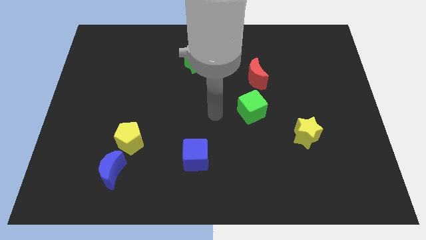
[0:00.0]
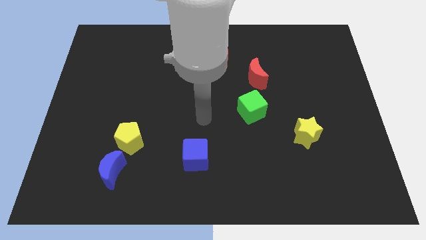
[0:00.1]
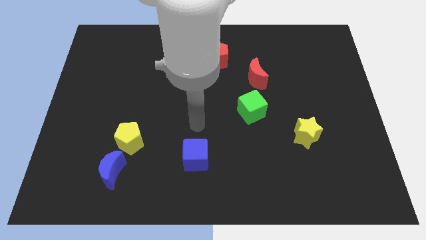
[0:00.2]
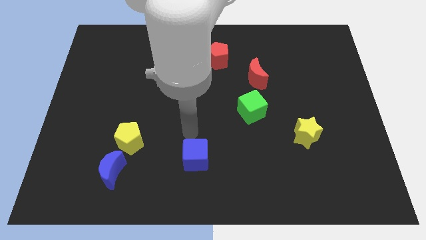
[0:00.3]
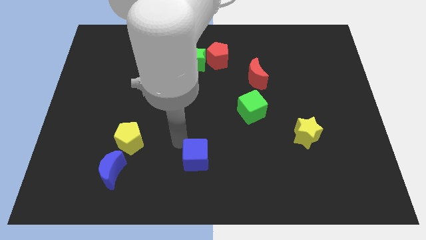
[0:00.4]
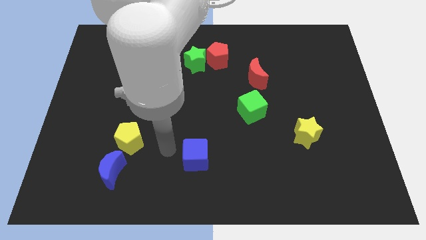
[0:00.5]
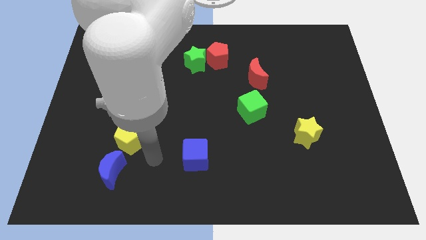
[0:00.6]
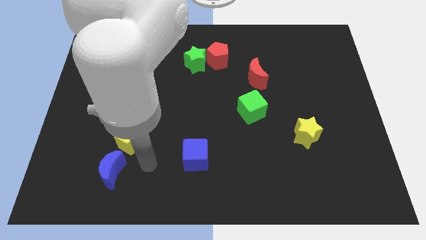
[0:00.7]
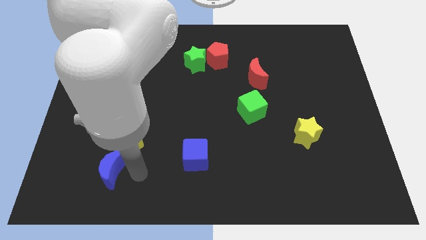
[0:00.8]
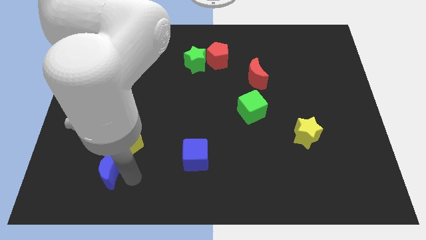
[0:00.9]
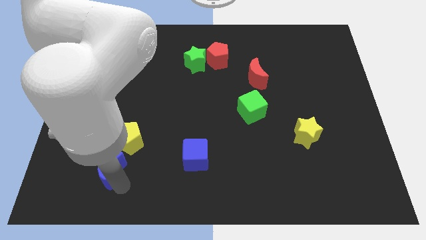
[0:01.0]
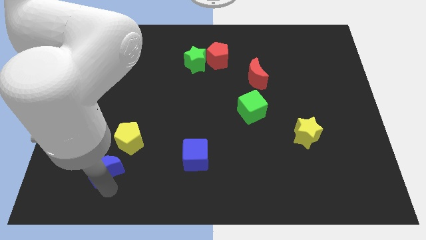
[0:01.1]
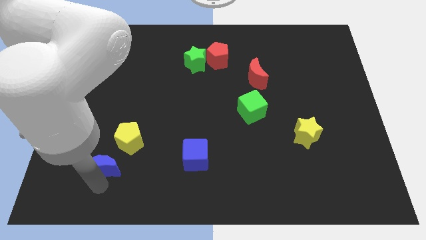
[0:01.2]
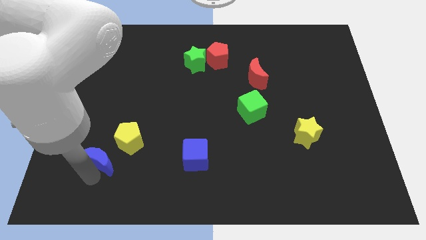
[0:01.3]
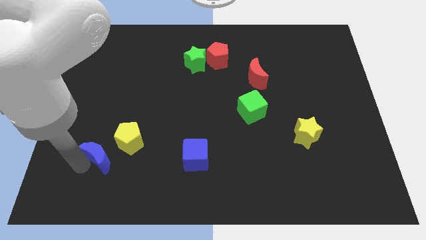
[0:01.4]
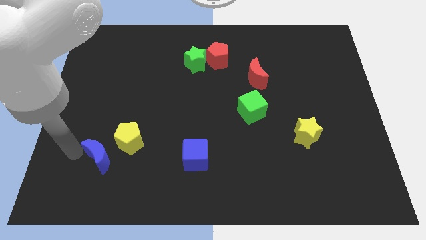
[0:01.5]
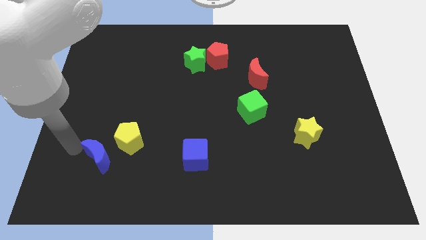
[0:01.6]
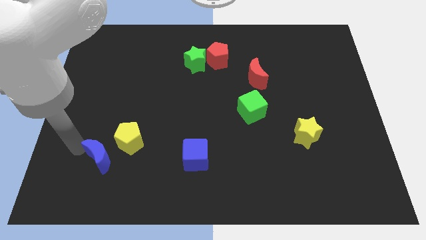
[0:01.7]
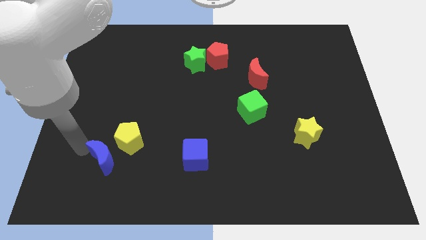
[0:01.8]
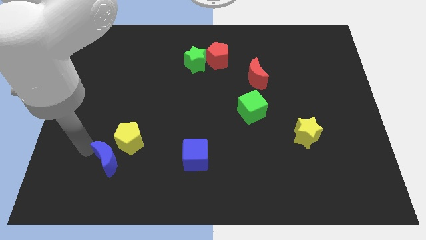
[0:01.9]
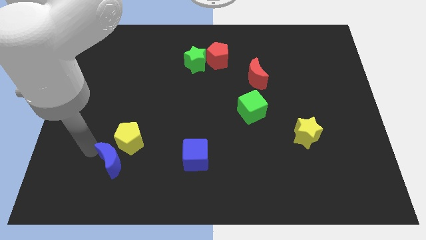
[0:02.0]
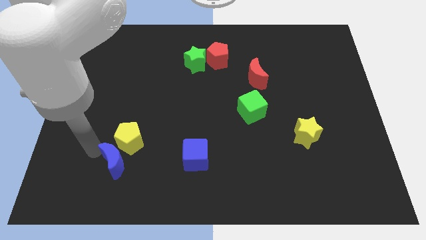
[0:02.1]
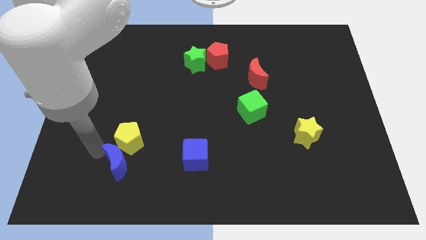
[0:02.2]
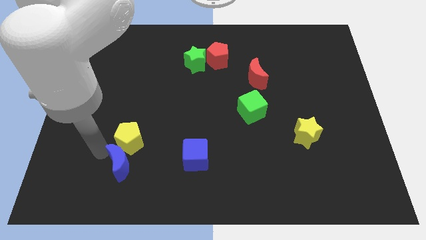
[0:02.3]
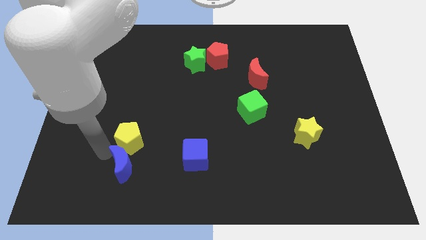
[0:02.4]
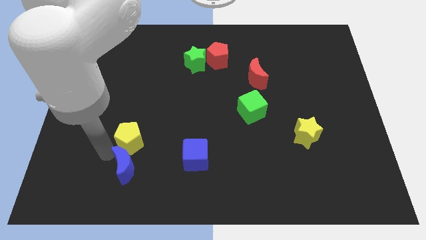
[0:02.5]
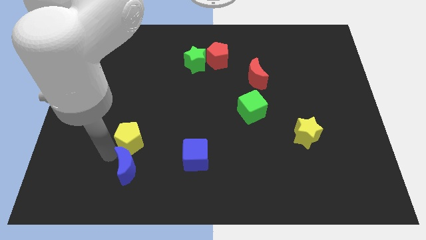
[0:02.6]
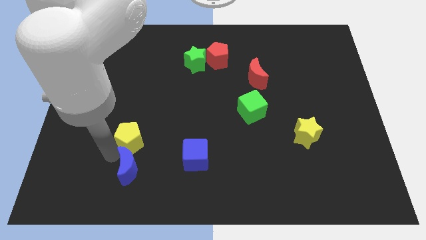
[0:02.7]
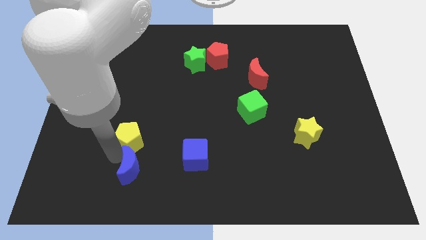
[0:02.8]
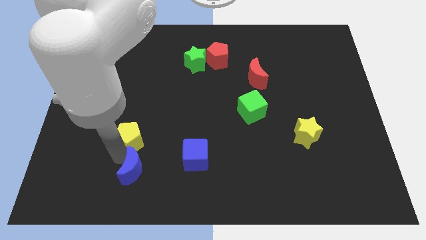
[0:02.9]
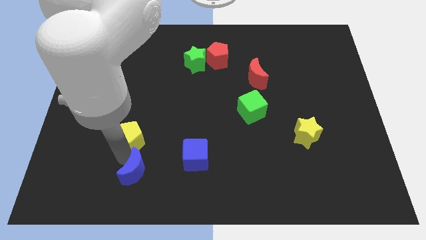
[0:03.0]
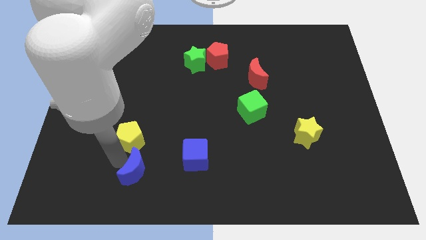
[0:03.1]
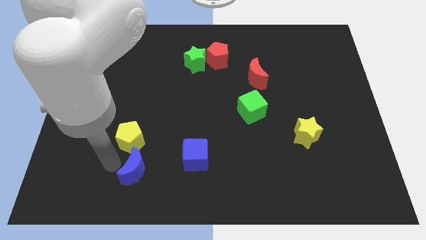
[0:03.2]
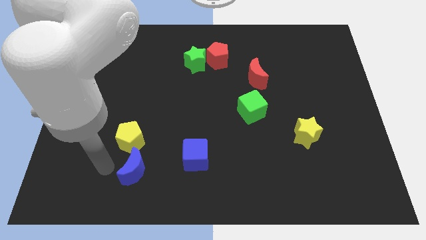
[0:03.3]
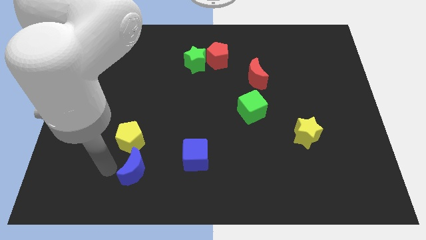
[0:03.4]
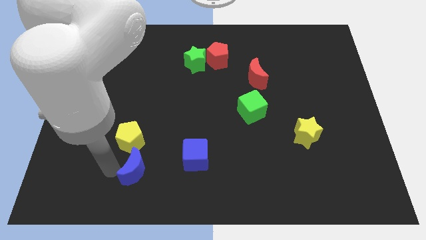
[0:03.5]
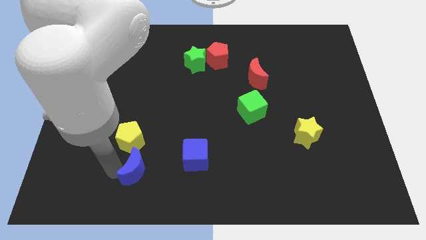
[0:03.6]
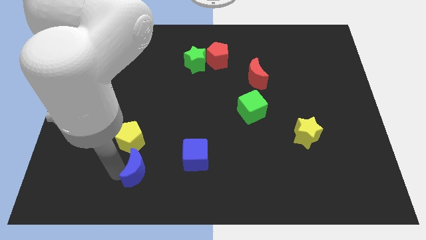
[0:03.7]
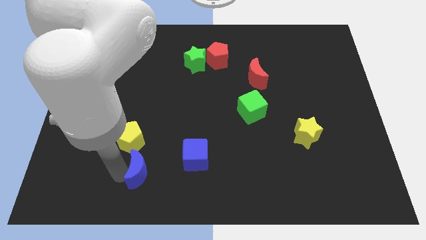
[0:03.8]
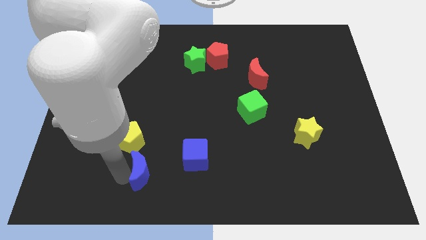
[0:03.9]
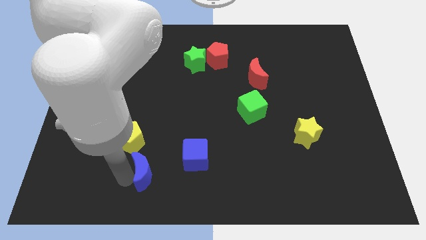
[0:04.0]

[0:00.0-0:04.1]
move the blue moon somewhat right

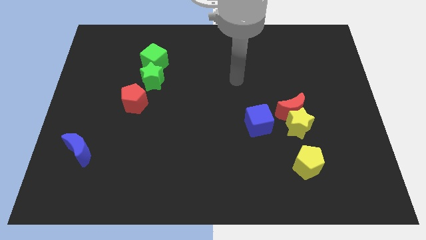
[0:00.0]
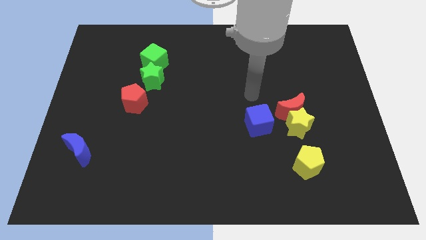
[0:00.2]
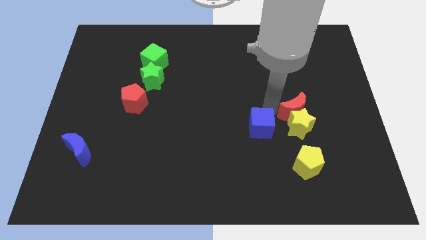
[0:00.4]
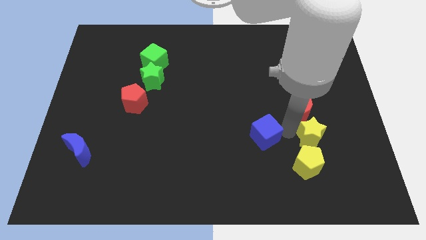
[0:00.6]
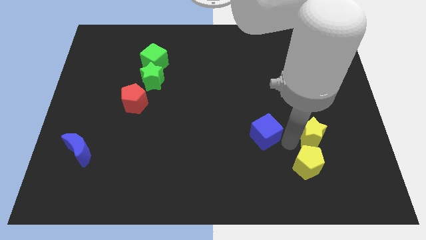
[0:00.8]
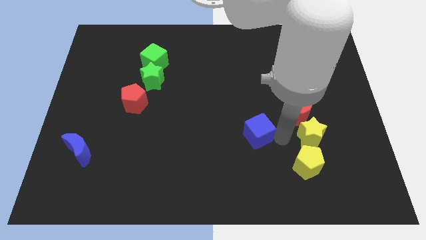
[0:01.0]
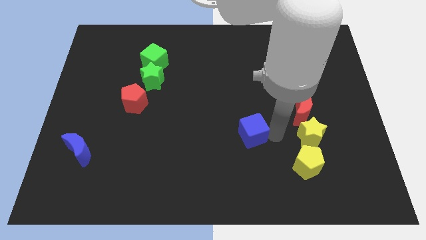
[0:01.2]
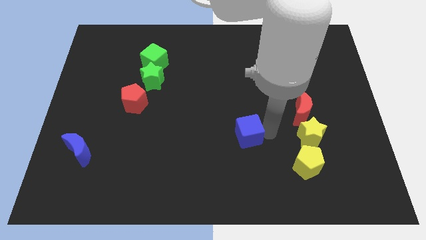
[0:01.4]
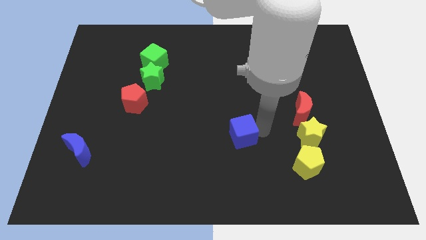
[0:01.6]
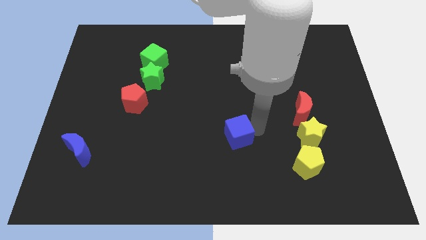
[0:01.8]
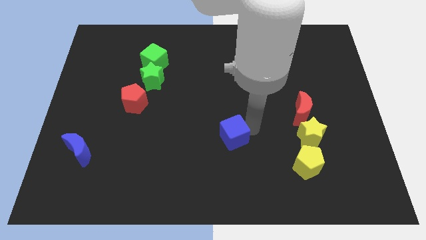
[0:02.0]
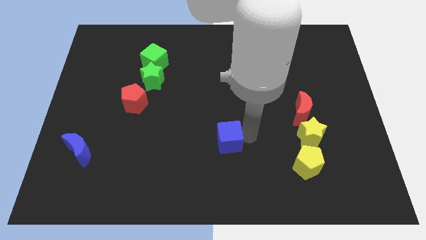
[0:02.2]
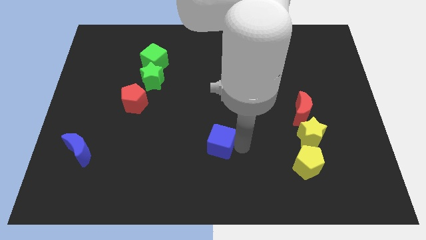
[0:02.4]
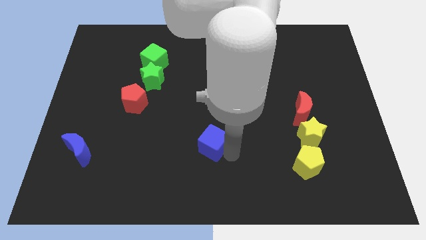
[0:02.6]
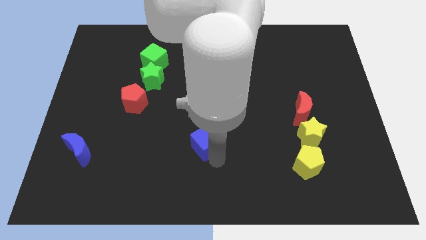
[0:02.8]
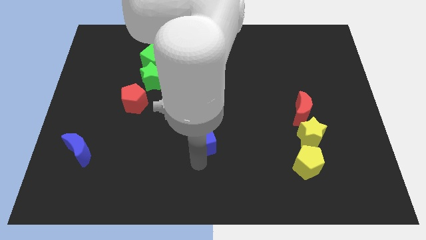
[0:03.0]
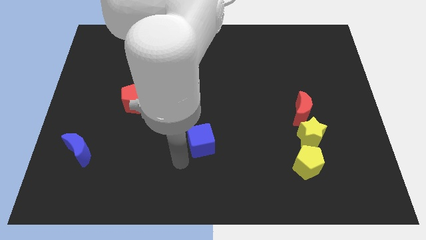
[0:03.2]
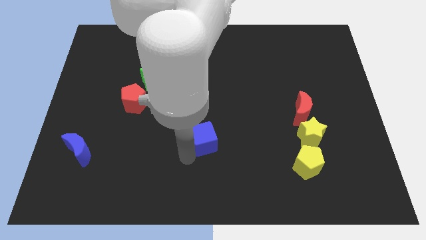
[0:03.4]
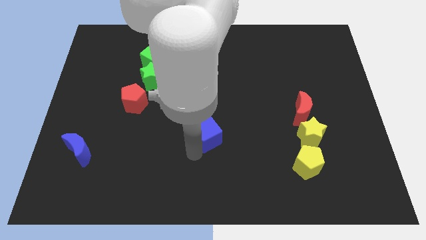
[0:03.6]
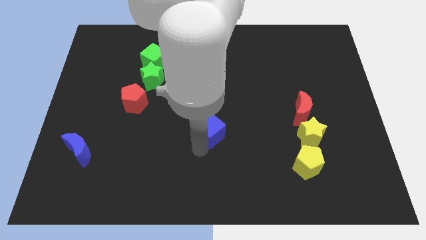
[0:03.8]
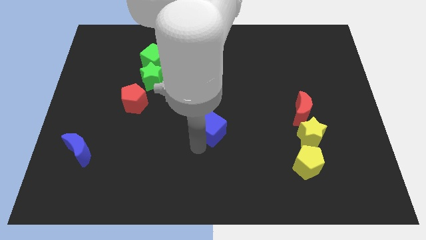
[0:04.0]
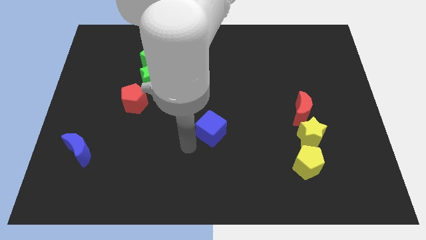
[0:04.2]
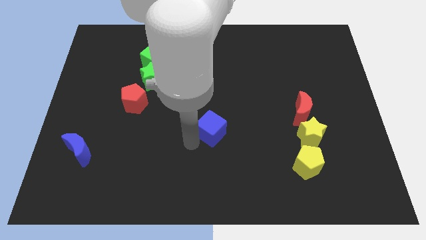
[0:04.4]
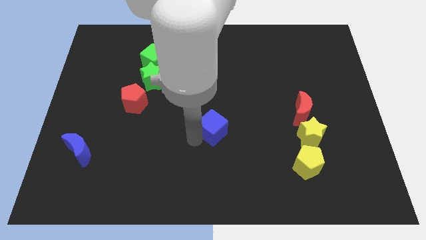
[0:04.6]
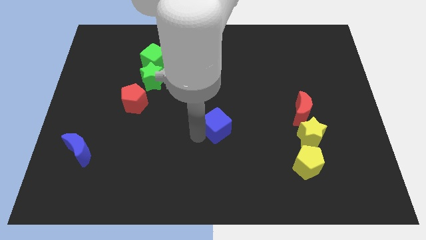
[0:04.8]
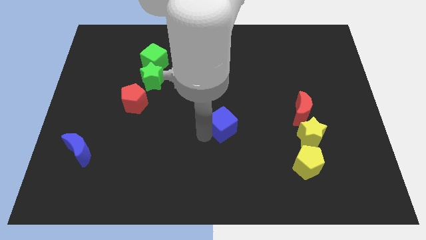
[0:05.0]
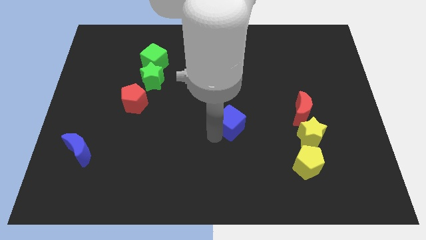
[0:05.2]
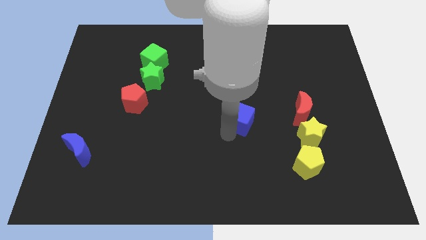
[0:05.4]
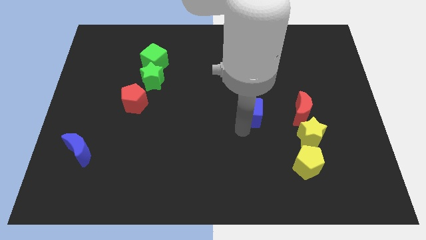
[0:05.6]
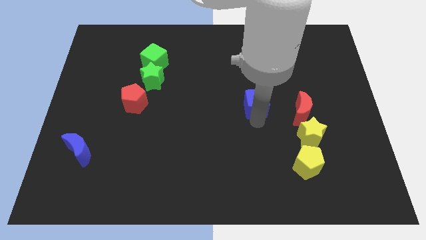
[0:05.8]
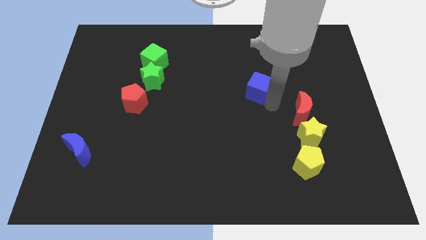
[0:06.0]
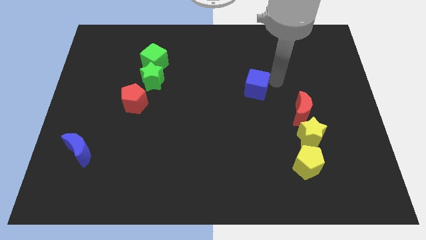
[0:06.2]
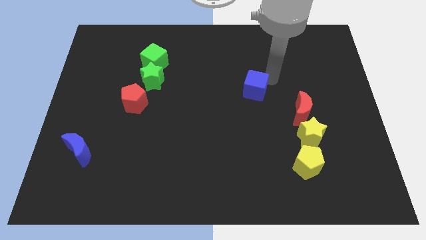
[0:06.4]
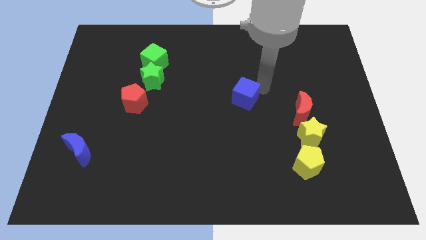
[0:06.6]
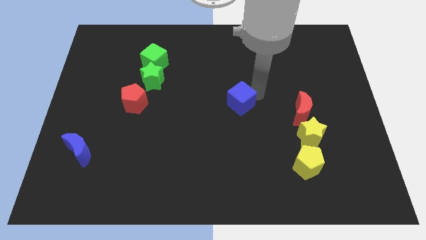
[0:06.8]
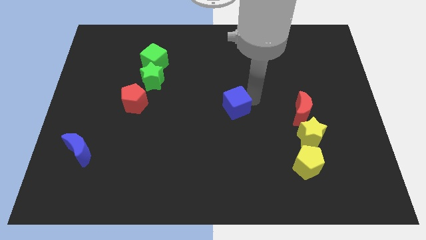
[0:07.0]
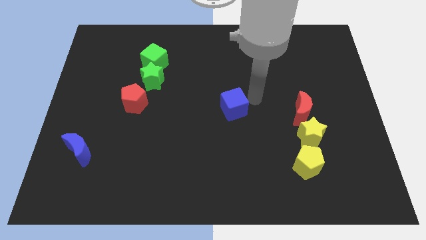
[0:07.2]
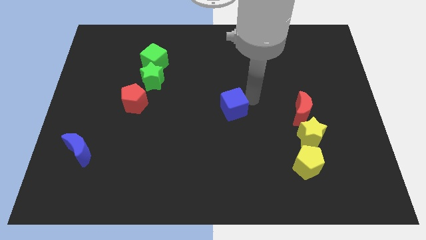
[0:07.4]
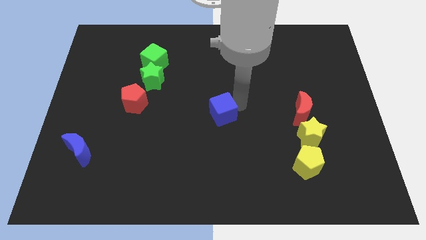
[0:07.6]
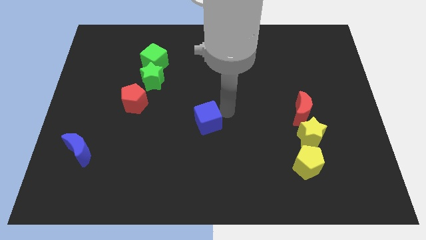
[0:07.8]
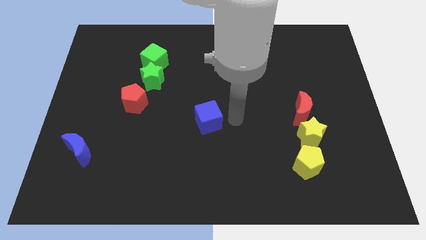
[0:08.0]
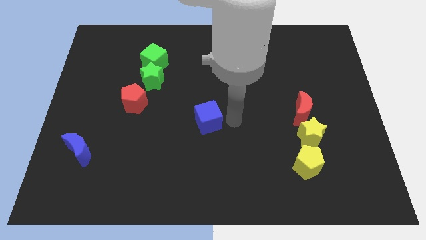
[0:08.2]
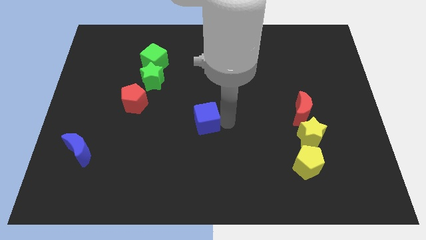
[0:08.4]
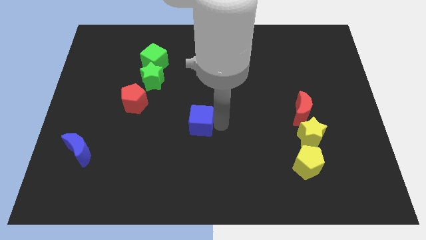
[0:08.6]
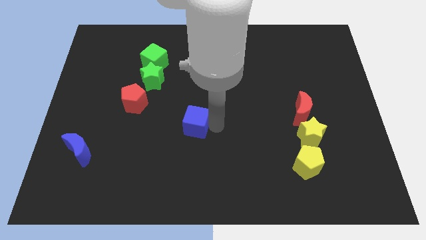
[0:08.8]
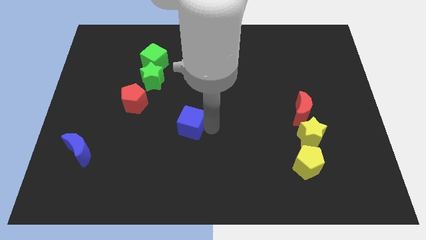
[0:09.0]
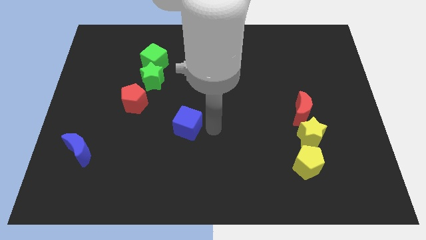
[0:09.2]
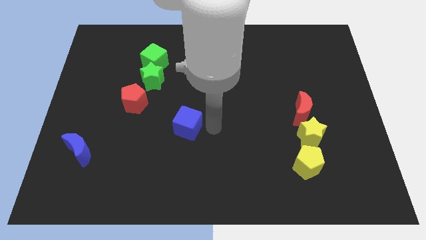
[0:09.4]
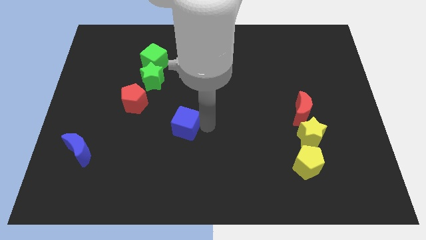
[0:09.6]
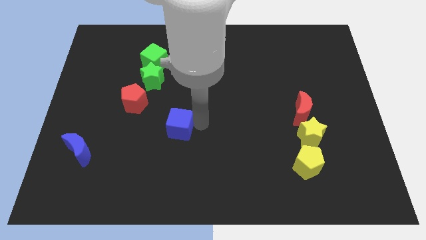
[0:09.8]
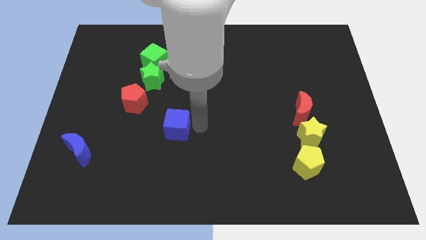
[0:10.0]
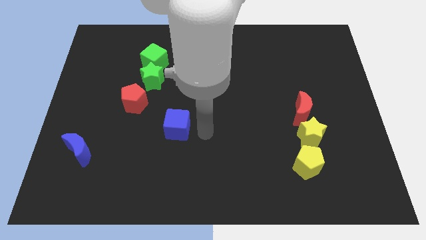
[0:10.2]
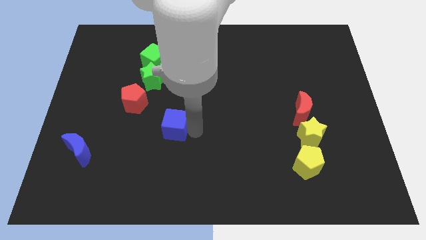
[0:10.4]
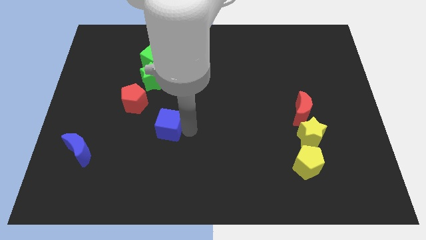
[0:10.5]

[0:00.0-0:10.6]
slide the blue cube to the left
